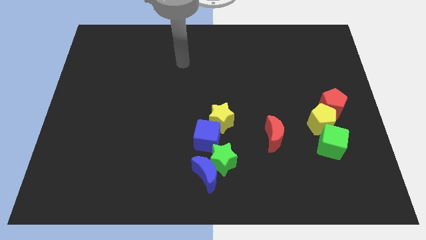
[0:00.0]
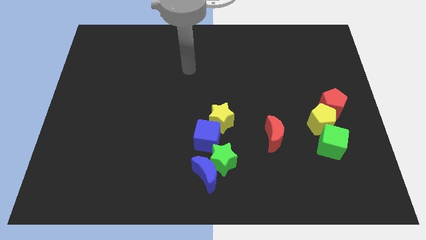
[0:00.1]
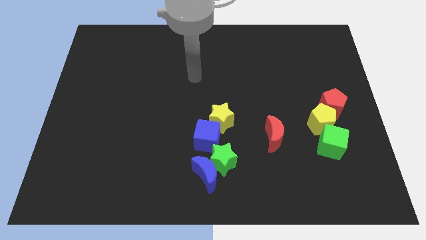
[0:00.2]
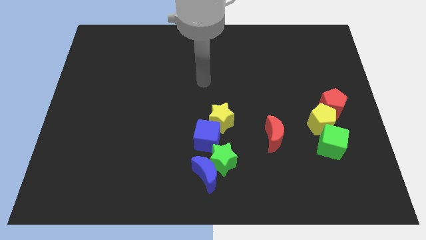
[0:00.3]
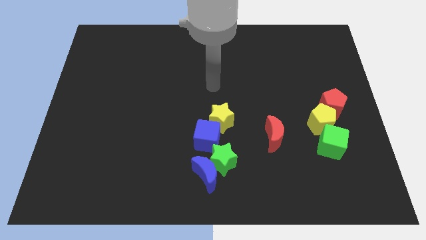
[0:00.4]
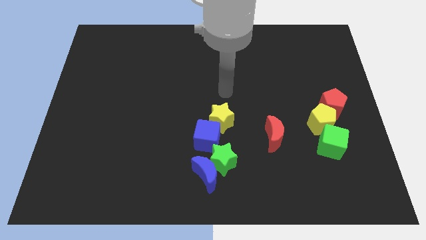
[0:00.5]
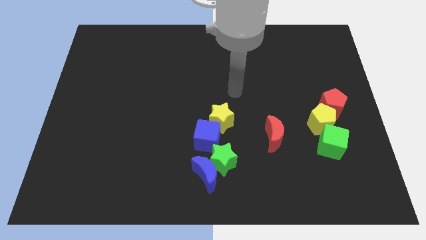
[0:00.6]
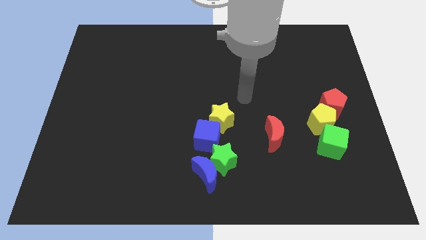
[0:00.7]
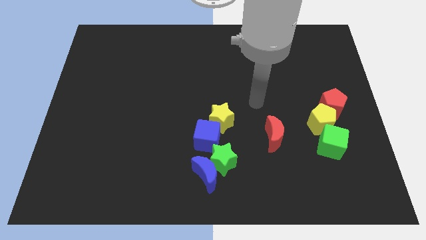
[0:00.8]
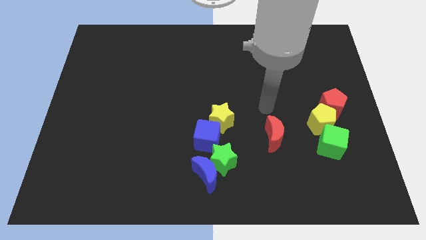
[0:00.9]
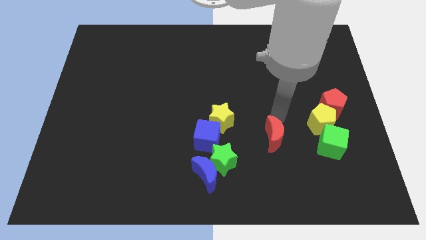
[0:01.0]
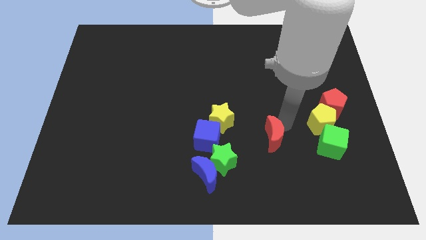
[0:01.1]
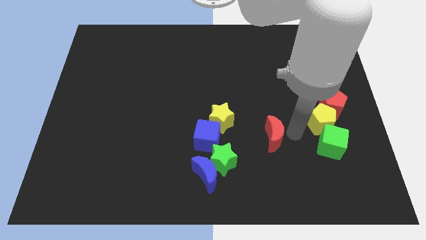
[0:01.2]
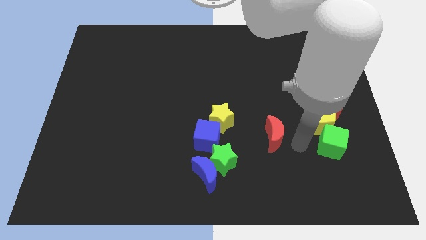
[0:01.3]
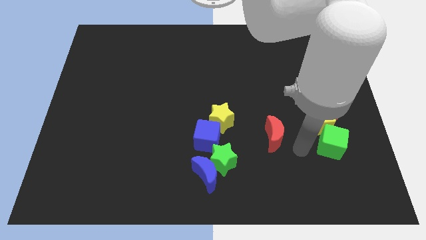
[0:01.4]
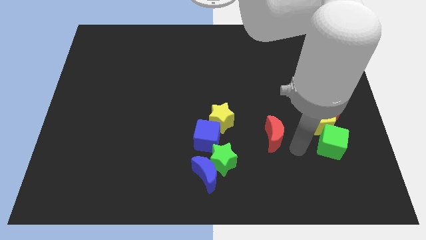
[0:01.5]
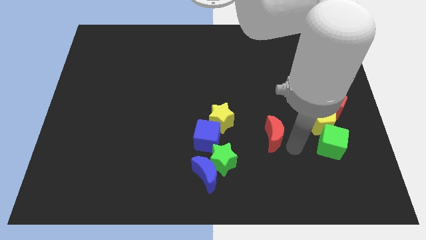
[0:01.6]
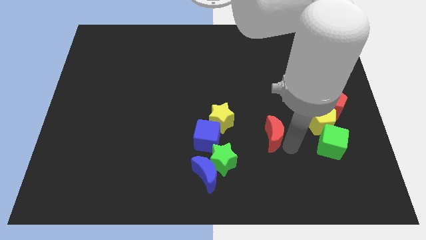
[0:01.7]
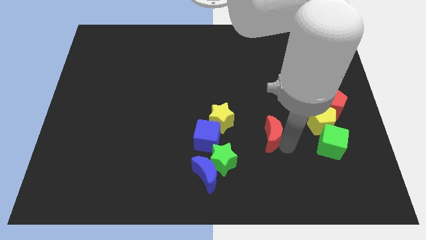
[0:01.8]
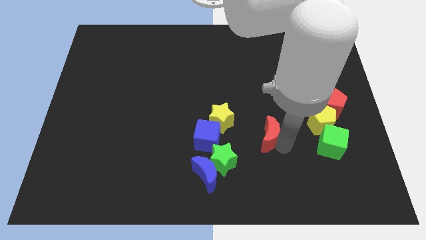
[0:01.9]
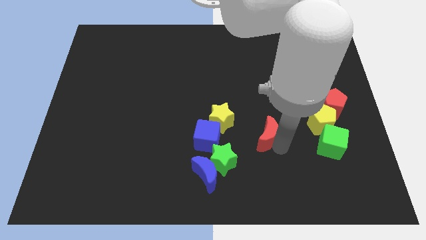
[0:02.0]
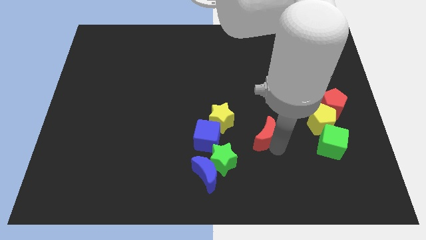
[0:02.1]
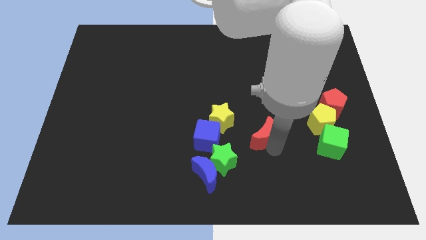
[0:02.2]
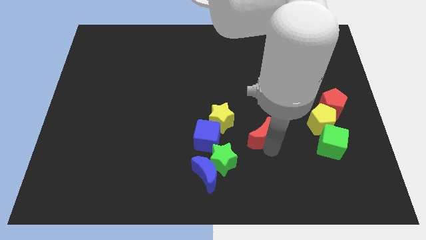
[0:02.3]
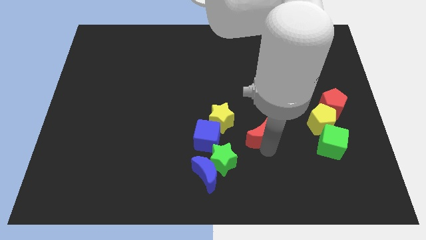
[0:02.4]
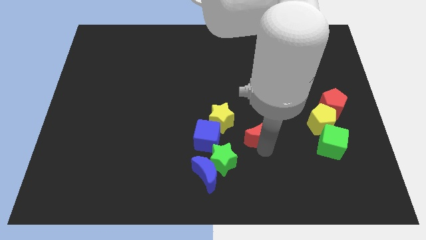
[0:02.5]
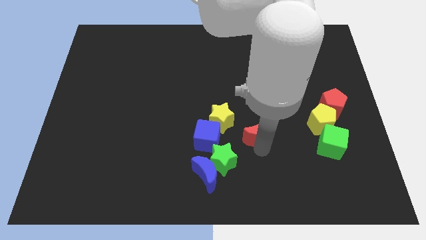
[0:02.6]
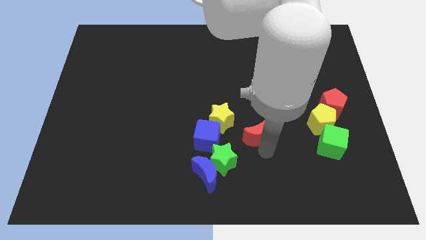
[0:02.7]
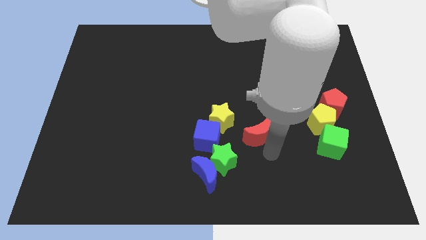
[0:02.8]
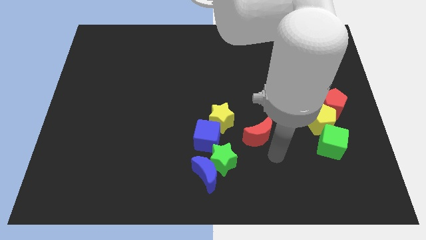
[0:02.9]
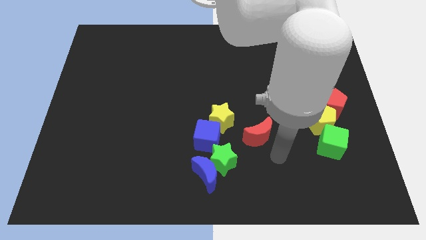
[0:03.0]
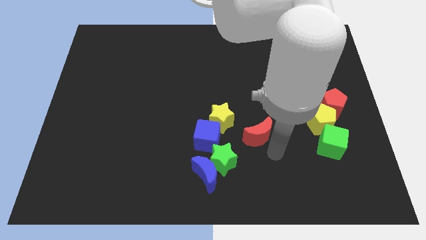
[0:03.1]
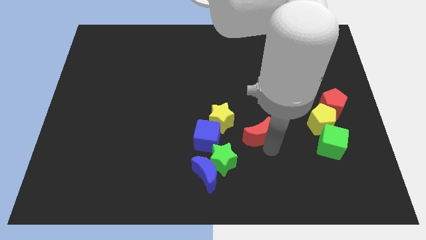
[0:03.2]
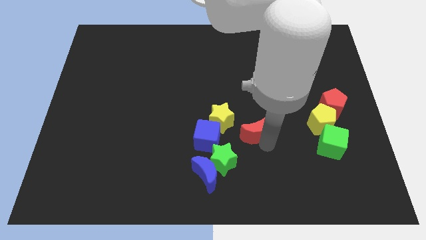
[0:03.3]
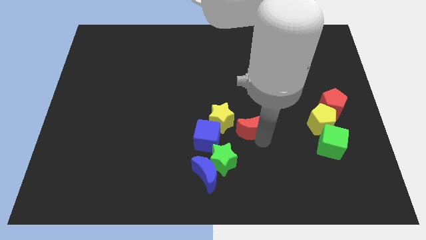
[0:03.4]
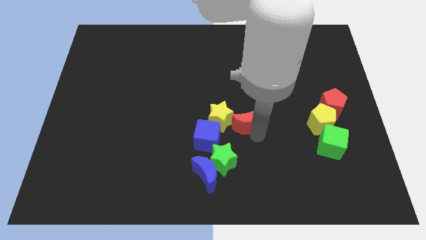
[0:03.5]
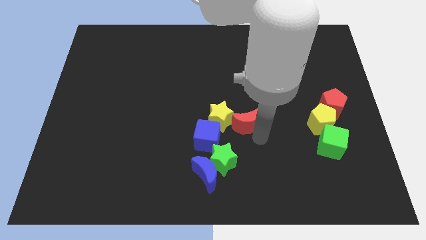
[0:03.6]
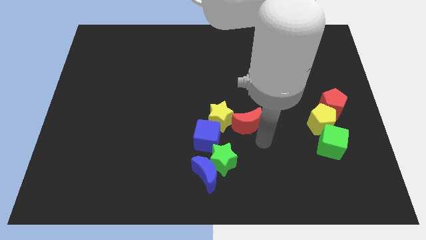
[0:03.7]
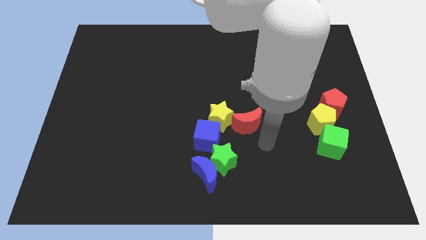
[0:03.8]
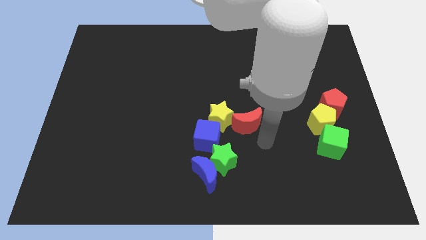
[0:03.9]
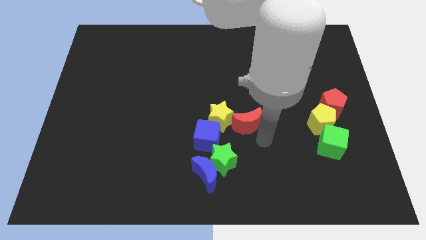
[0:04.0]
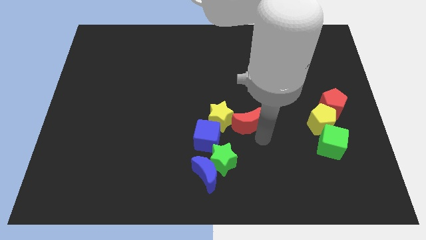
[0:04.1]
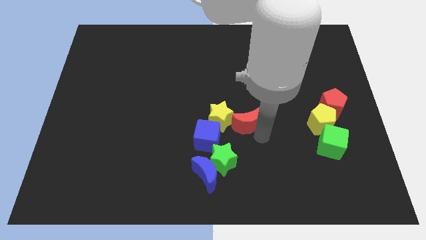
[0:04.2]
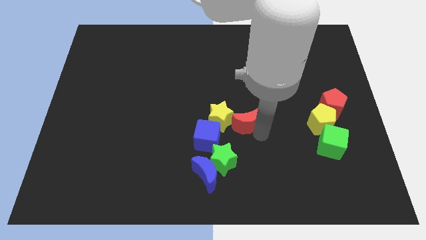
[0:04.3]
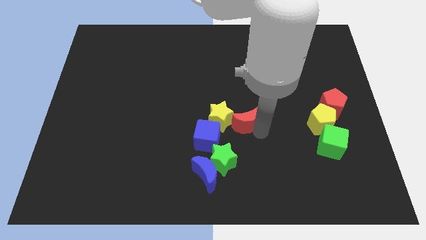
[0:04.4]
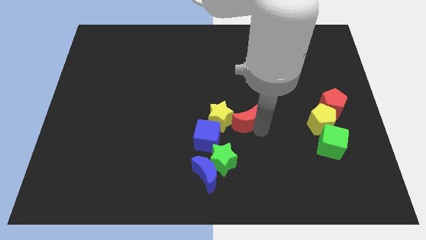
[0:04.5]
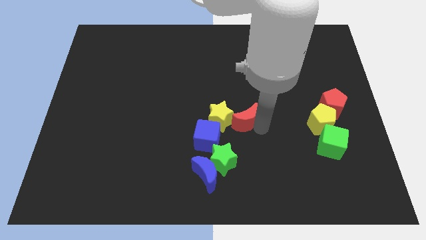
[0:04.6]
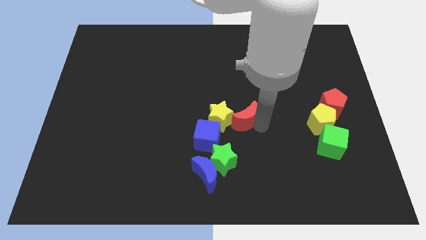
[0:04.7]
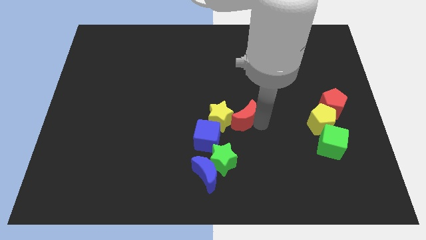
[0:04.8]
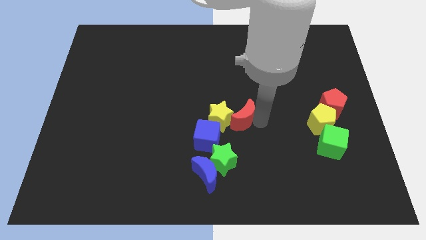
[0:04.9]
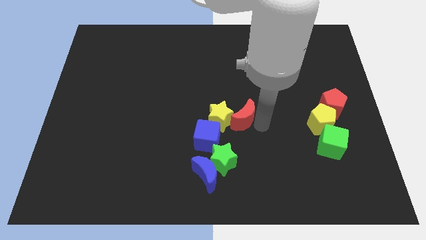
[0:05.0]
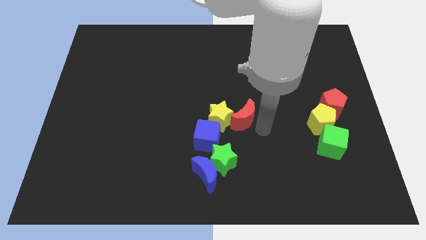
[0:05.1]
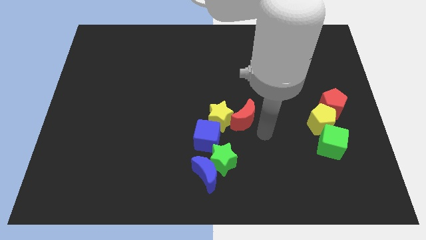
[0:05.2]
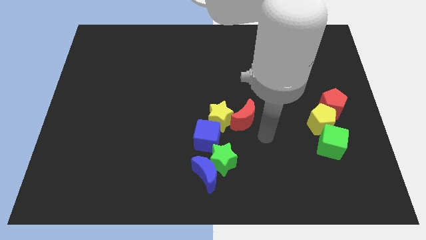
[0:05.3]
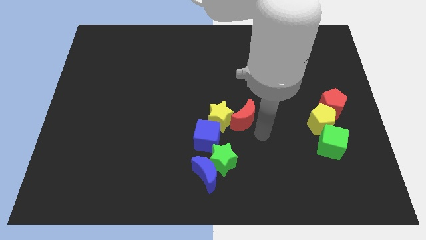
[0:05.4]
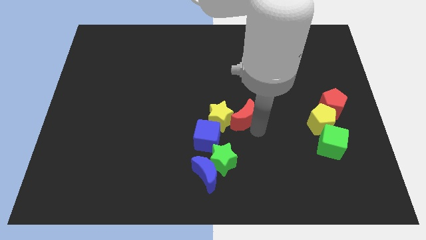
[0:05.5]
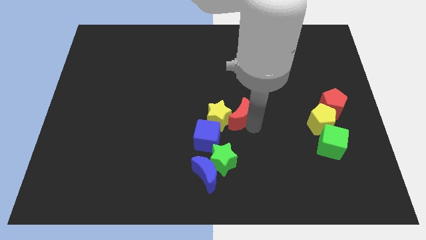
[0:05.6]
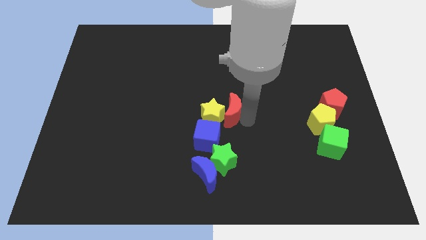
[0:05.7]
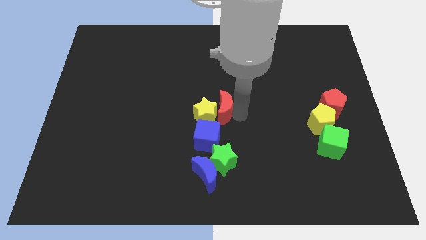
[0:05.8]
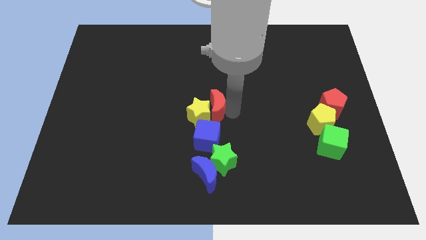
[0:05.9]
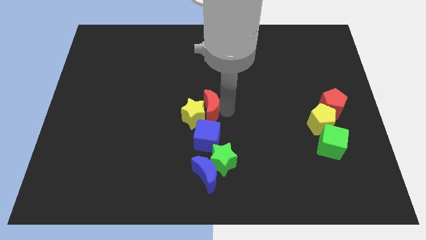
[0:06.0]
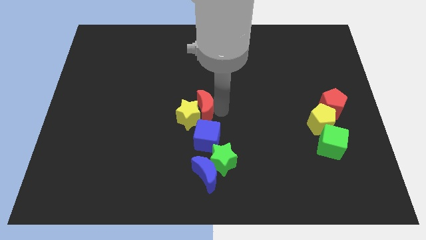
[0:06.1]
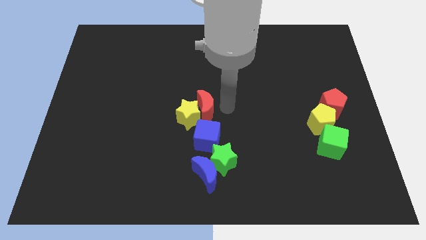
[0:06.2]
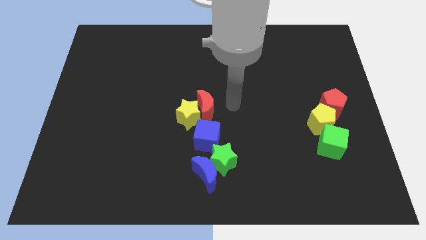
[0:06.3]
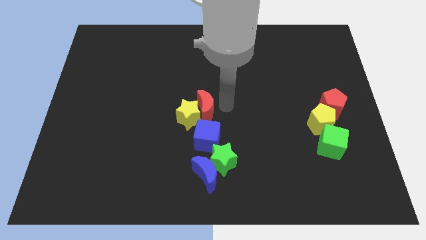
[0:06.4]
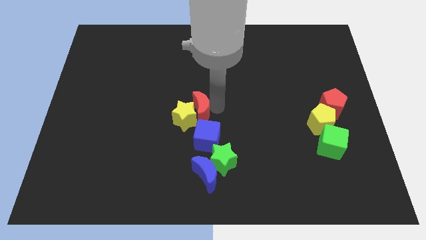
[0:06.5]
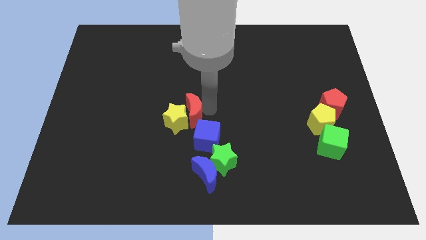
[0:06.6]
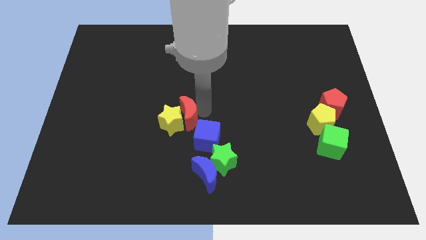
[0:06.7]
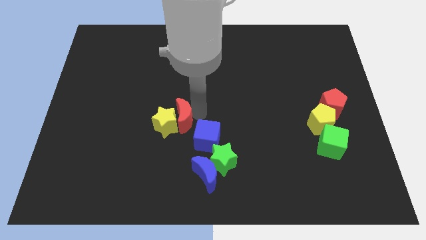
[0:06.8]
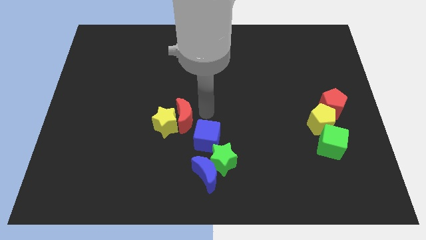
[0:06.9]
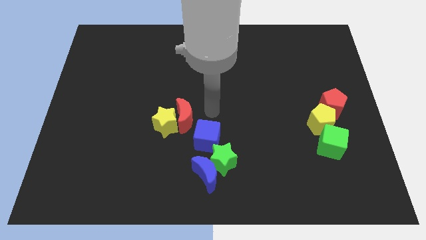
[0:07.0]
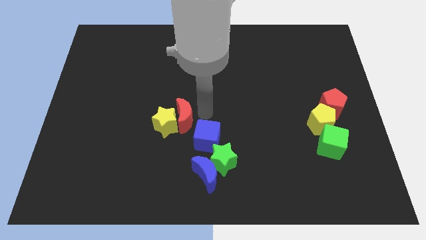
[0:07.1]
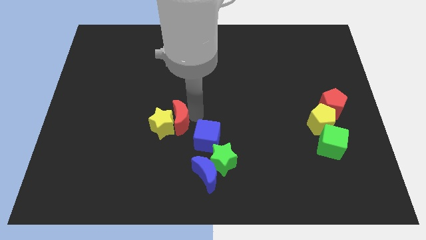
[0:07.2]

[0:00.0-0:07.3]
move the red moon left

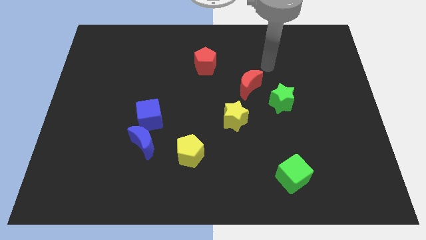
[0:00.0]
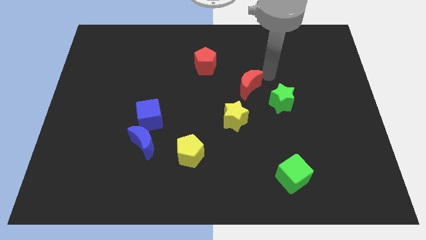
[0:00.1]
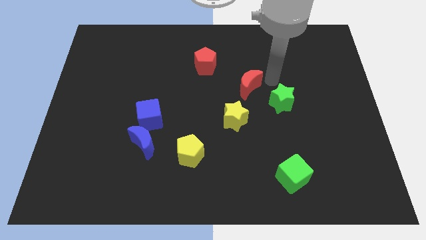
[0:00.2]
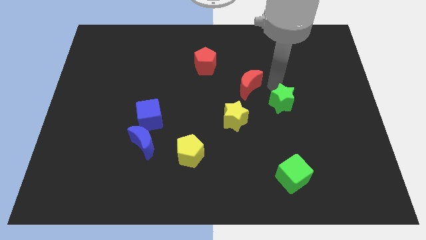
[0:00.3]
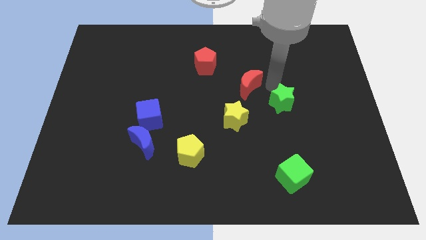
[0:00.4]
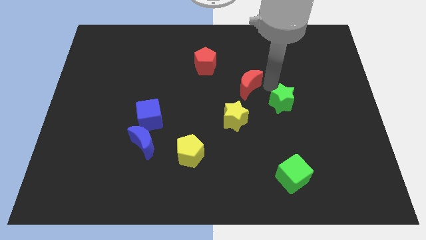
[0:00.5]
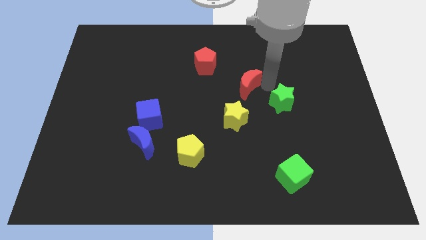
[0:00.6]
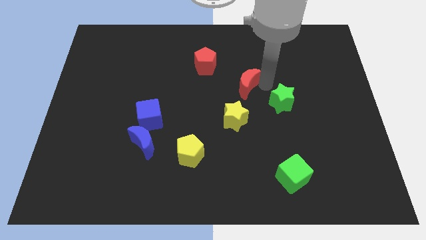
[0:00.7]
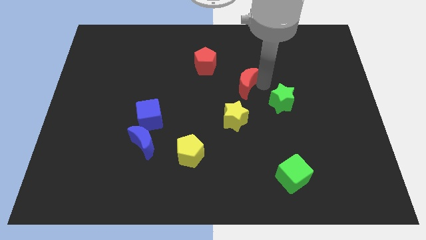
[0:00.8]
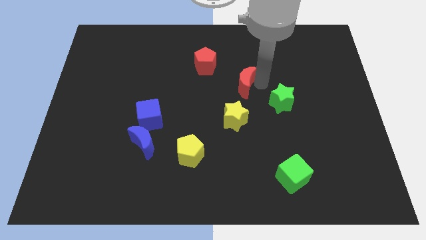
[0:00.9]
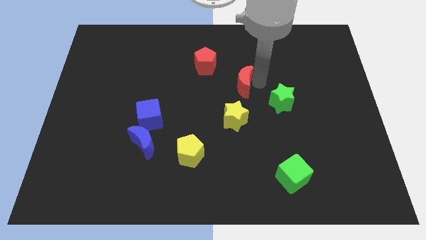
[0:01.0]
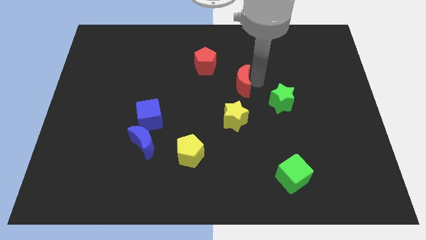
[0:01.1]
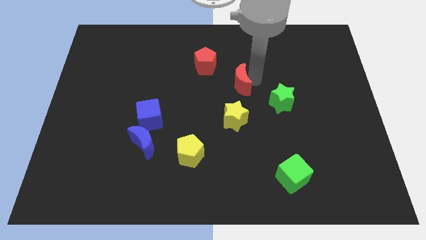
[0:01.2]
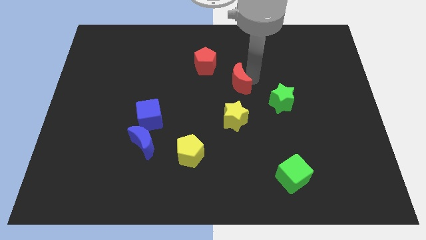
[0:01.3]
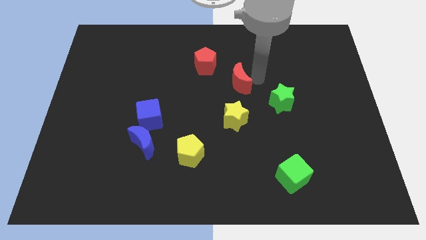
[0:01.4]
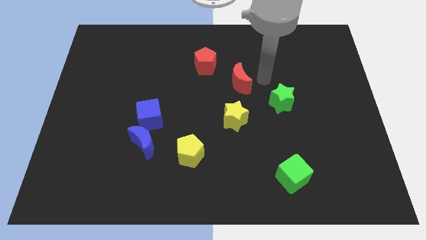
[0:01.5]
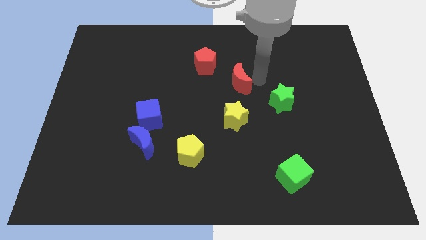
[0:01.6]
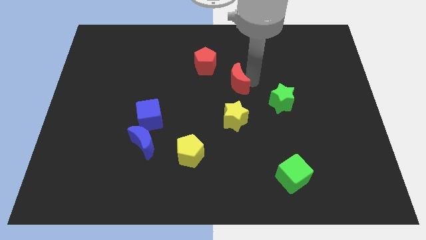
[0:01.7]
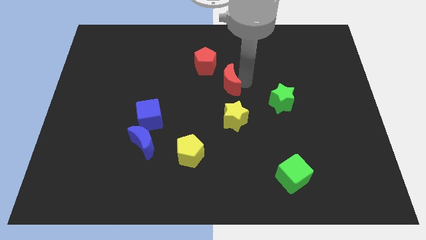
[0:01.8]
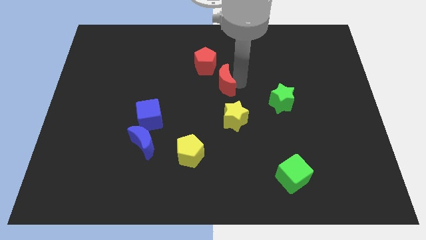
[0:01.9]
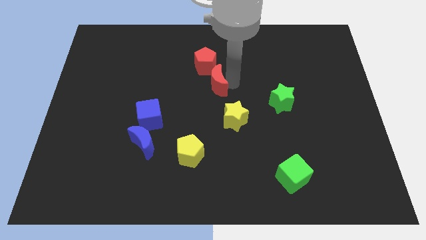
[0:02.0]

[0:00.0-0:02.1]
slightly slide the red moon to the left
